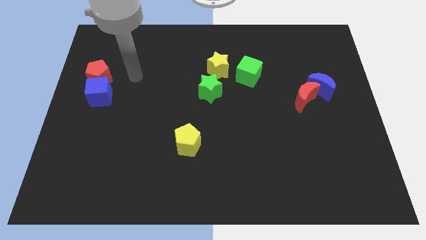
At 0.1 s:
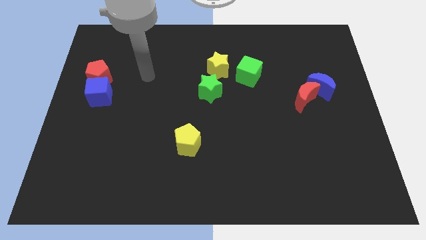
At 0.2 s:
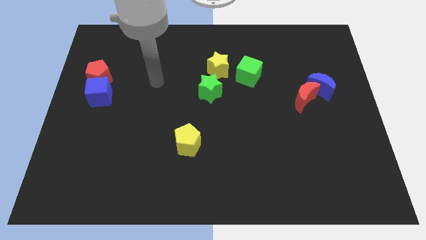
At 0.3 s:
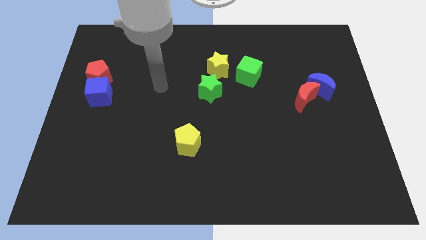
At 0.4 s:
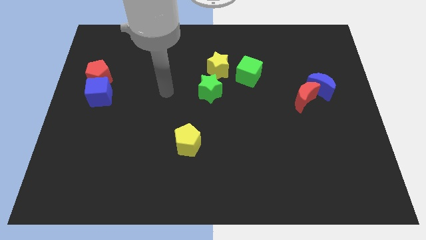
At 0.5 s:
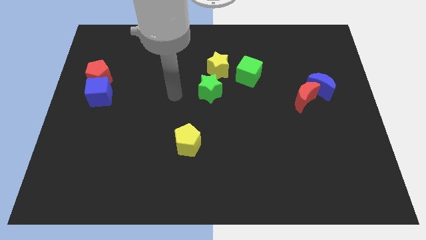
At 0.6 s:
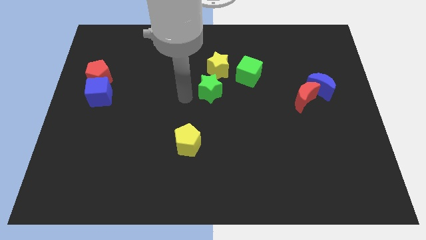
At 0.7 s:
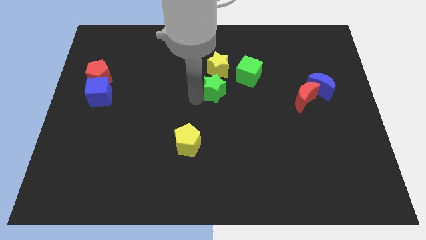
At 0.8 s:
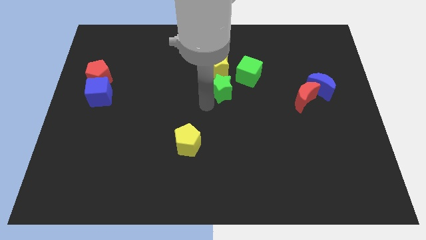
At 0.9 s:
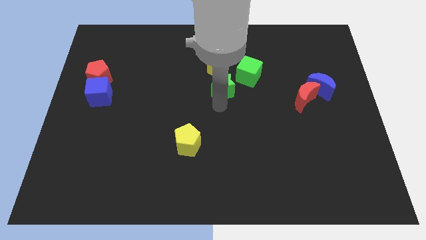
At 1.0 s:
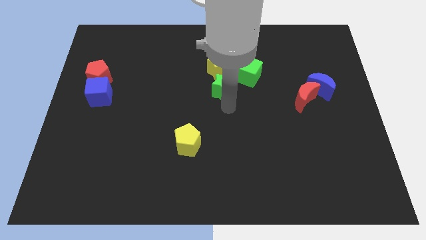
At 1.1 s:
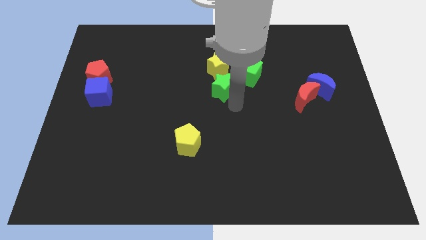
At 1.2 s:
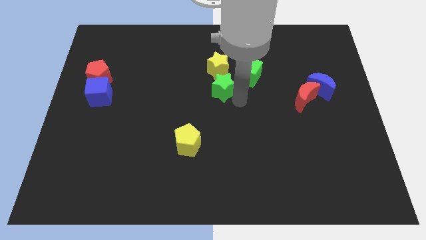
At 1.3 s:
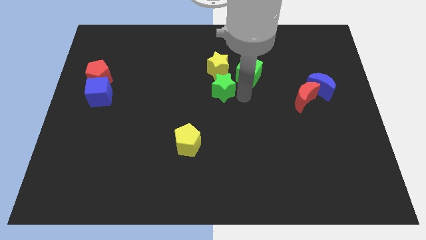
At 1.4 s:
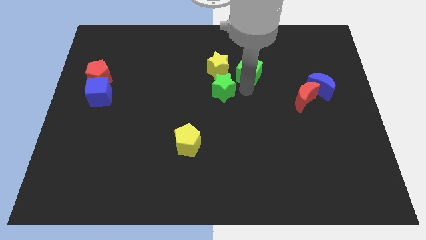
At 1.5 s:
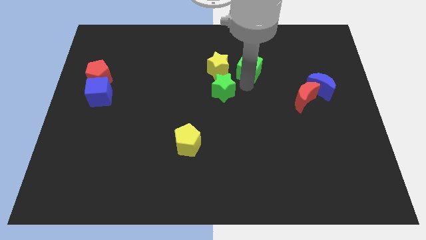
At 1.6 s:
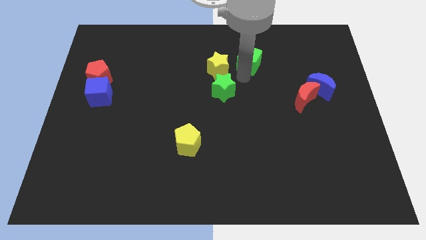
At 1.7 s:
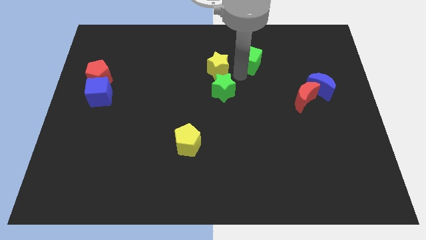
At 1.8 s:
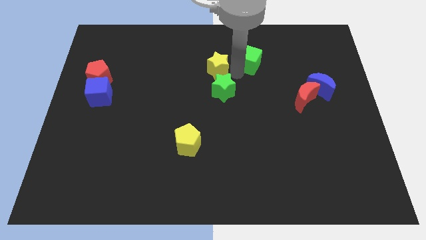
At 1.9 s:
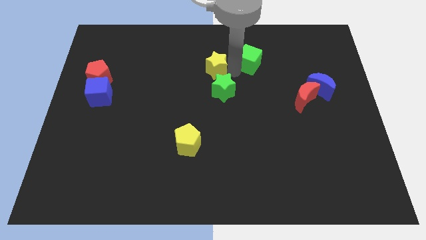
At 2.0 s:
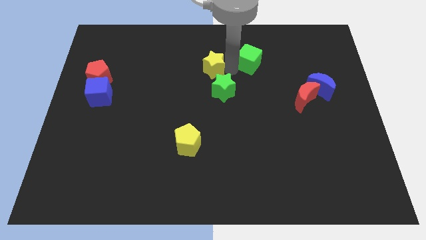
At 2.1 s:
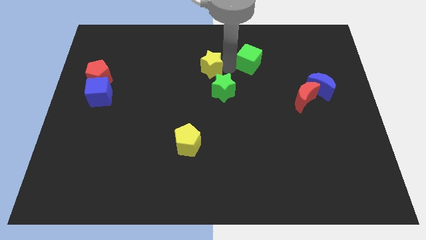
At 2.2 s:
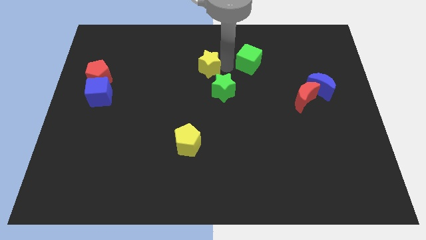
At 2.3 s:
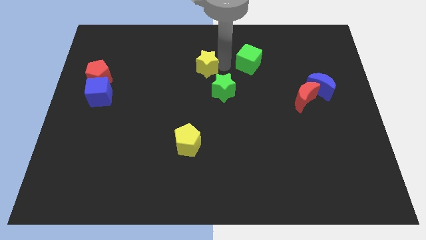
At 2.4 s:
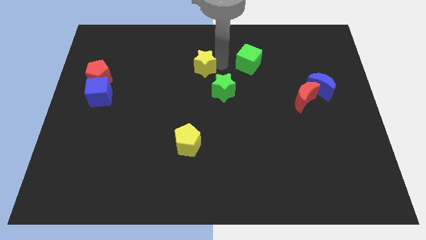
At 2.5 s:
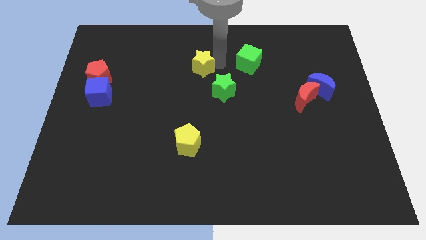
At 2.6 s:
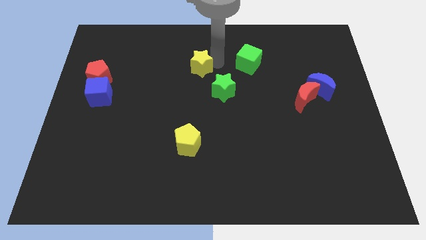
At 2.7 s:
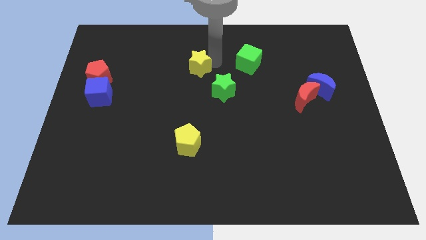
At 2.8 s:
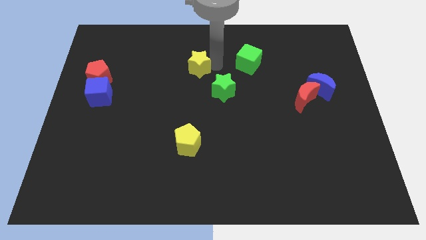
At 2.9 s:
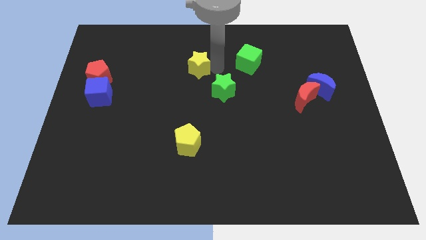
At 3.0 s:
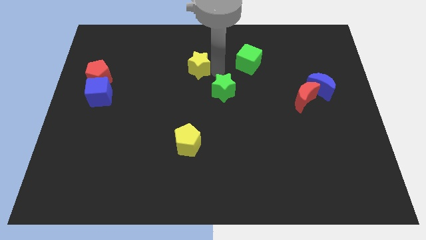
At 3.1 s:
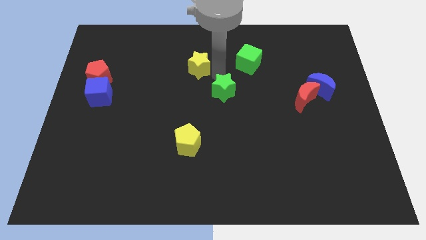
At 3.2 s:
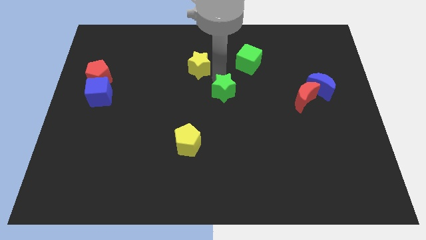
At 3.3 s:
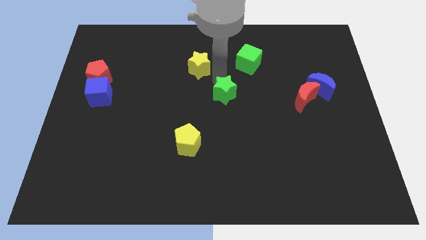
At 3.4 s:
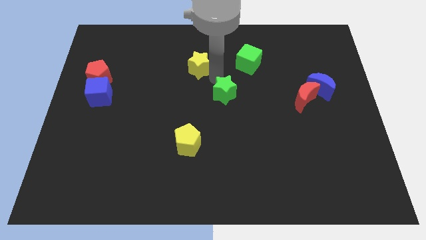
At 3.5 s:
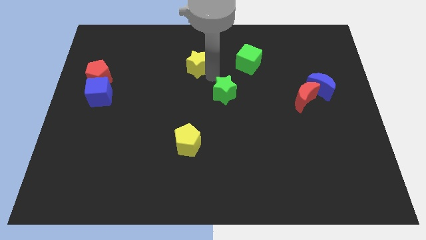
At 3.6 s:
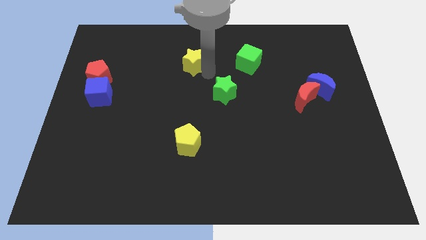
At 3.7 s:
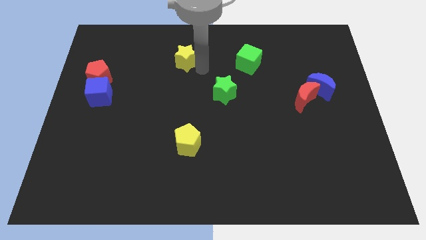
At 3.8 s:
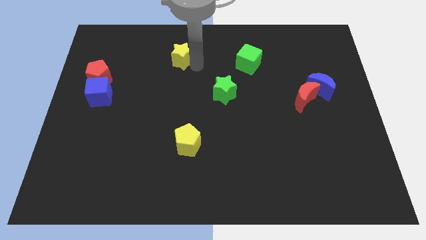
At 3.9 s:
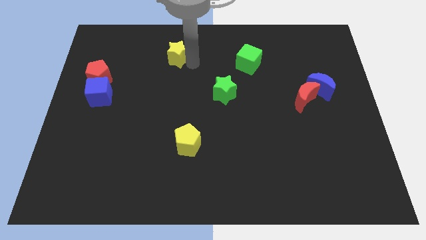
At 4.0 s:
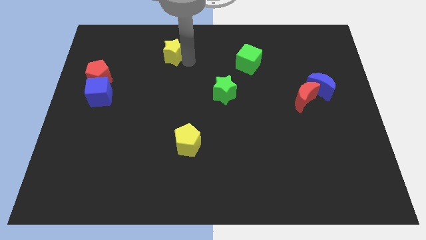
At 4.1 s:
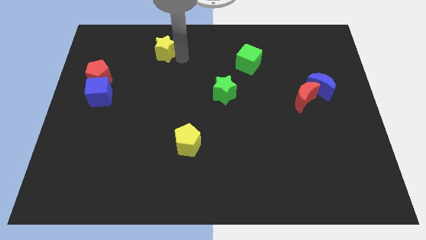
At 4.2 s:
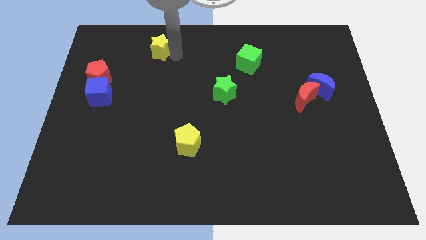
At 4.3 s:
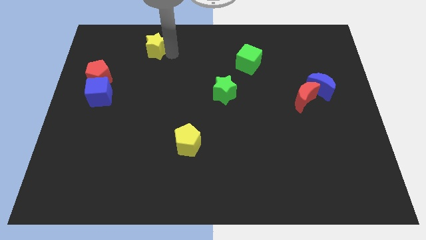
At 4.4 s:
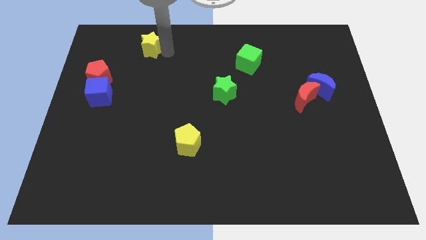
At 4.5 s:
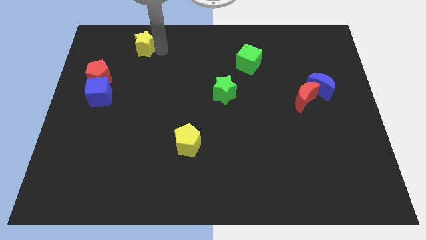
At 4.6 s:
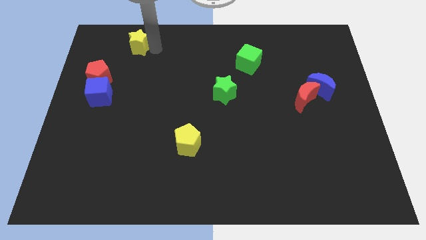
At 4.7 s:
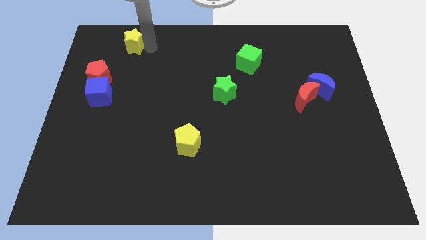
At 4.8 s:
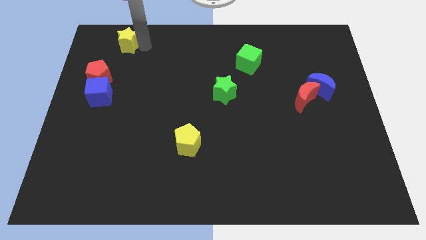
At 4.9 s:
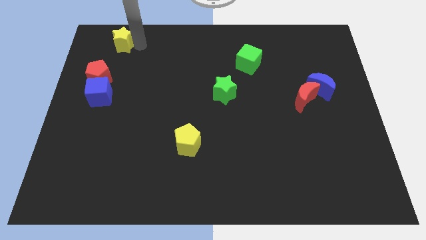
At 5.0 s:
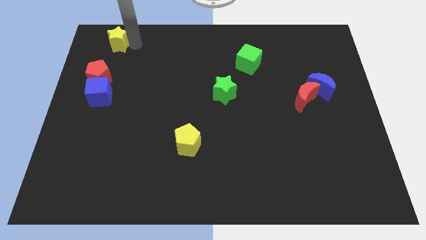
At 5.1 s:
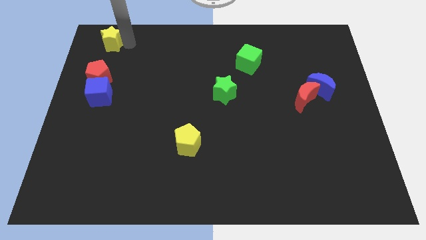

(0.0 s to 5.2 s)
move the yellow star to the top left of the board

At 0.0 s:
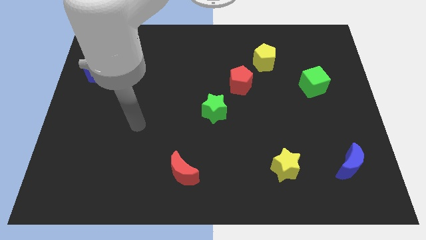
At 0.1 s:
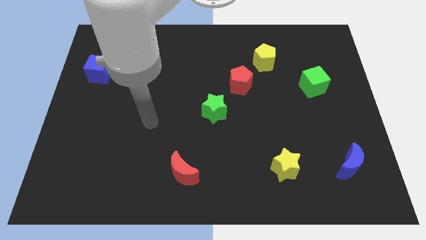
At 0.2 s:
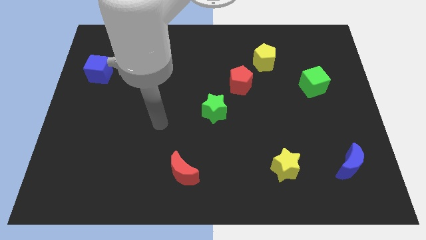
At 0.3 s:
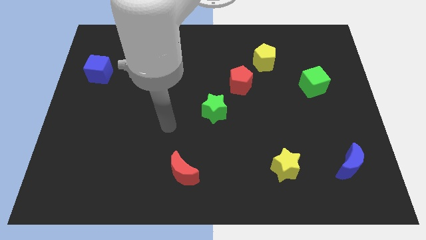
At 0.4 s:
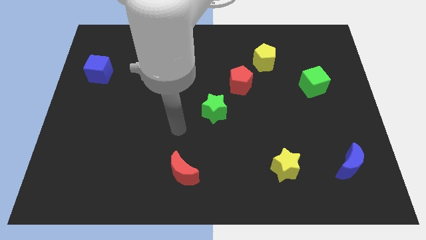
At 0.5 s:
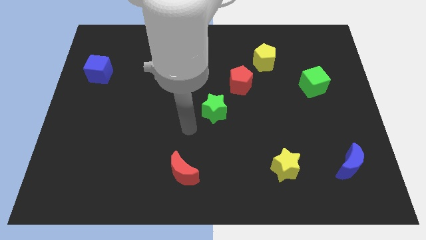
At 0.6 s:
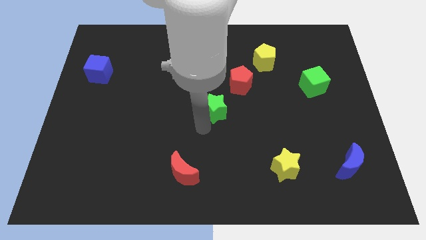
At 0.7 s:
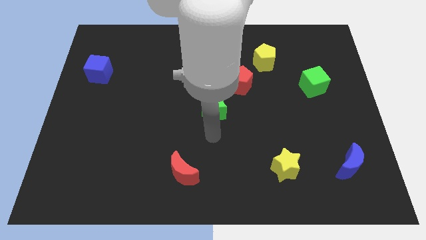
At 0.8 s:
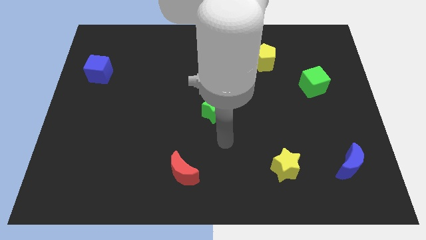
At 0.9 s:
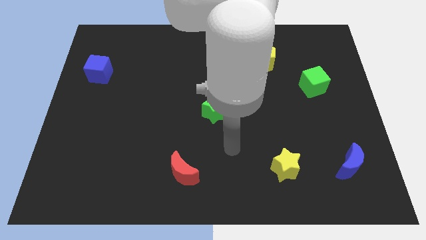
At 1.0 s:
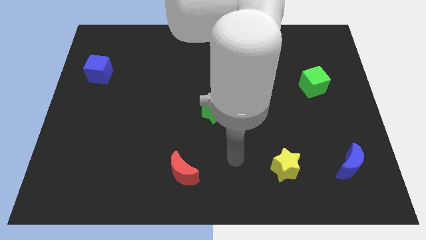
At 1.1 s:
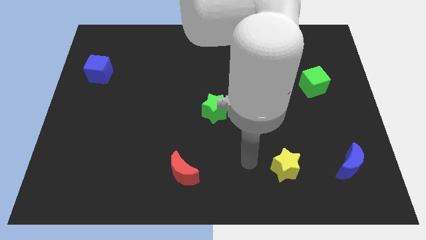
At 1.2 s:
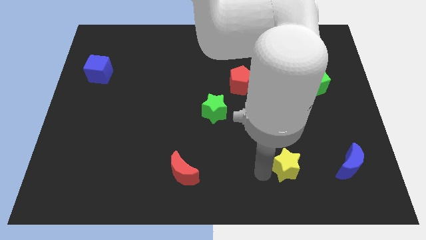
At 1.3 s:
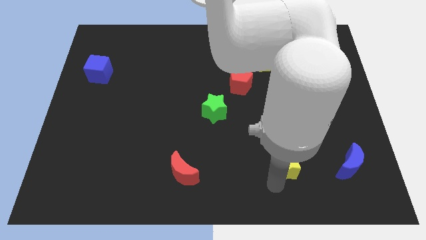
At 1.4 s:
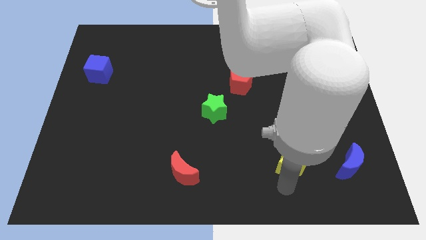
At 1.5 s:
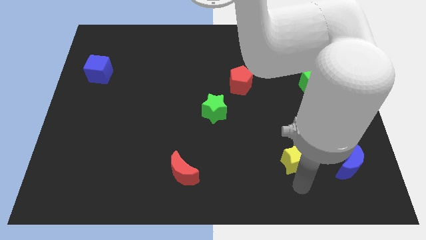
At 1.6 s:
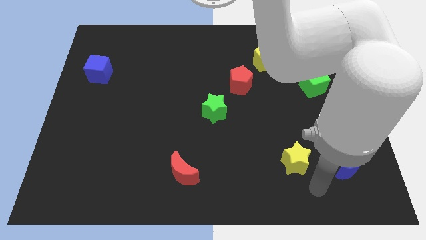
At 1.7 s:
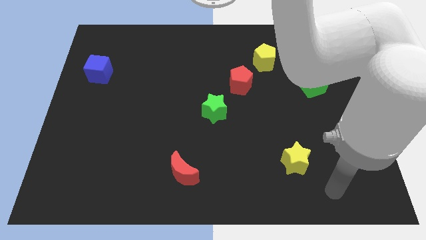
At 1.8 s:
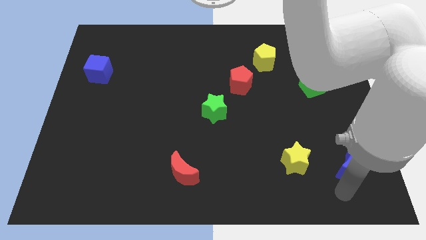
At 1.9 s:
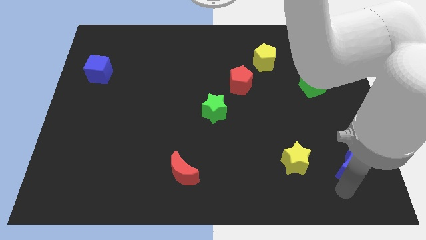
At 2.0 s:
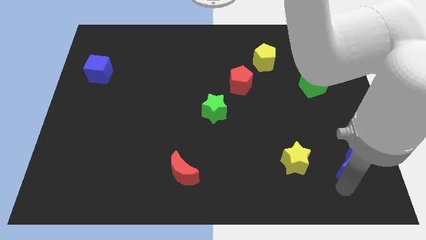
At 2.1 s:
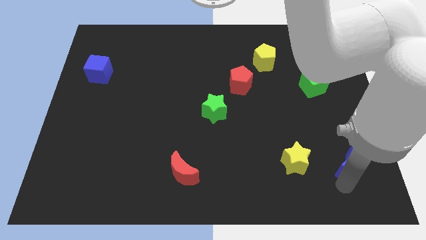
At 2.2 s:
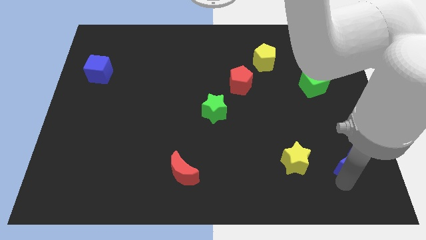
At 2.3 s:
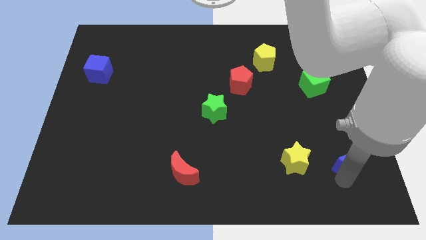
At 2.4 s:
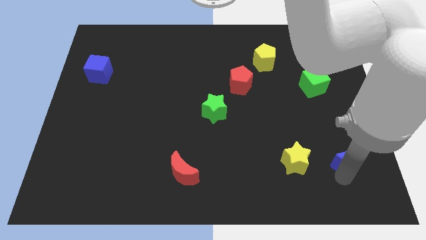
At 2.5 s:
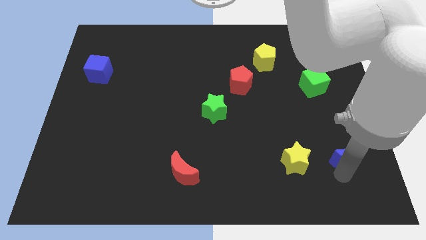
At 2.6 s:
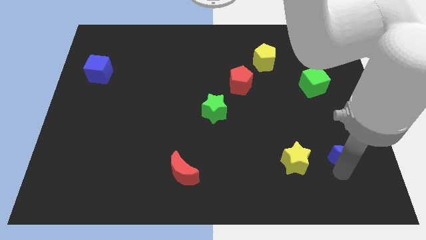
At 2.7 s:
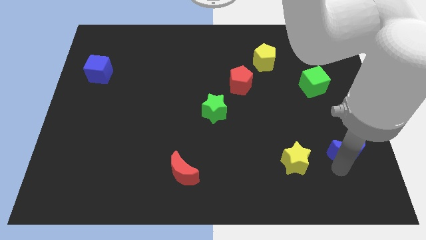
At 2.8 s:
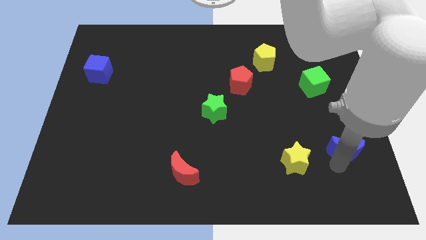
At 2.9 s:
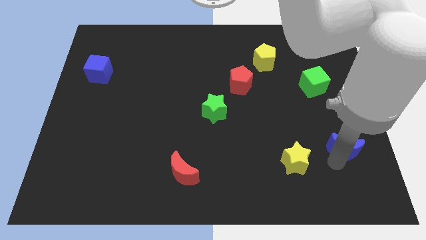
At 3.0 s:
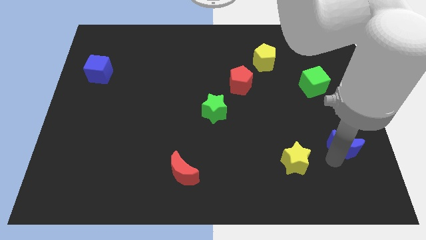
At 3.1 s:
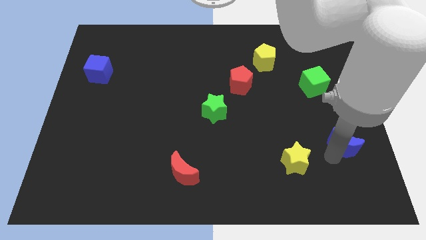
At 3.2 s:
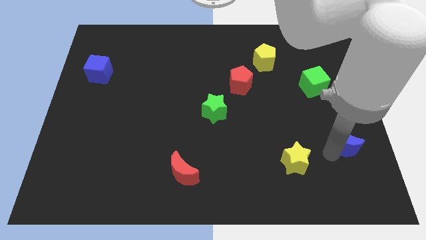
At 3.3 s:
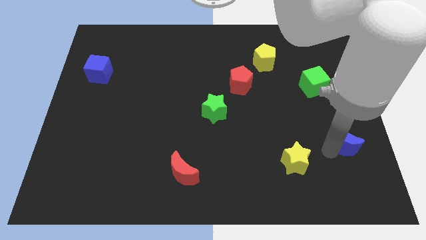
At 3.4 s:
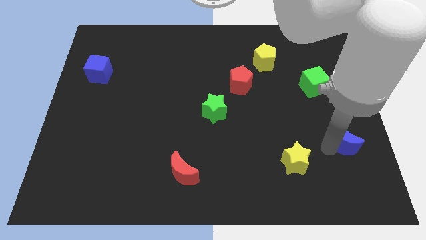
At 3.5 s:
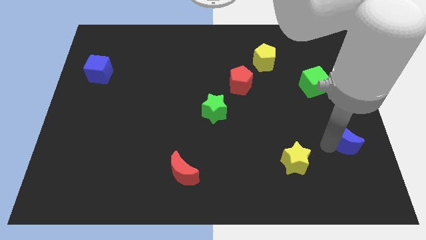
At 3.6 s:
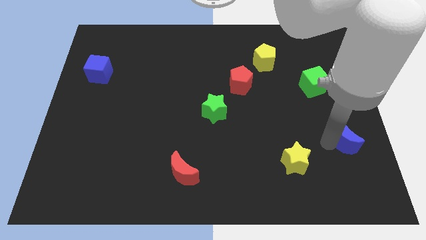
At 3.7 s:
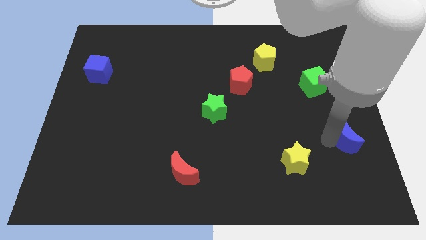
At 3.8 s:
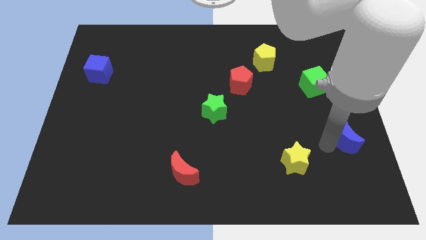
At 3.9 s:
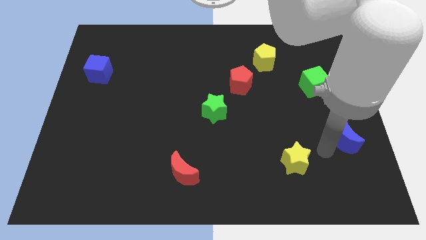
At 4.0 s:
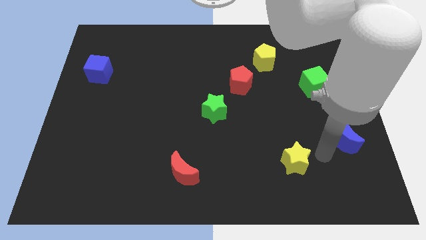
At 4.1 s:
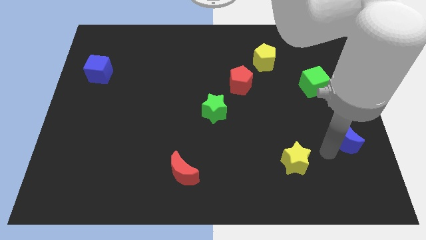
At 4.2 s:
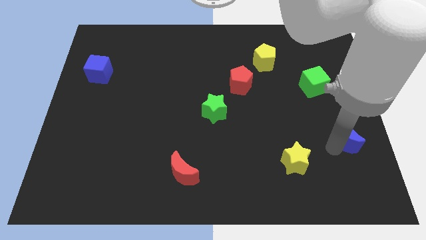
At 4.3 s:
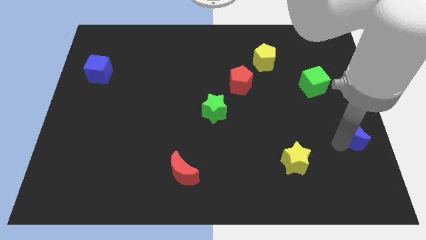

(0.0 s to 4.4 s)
move the blue moon to the right side of the board
